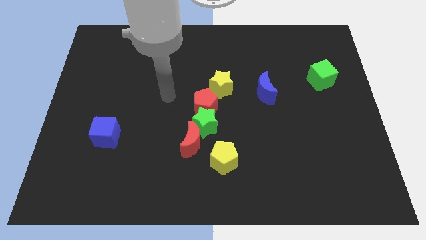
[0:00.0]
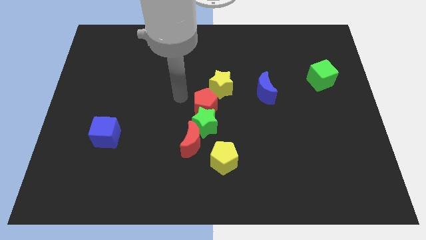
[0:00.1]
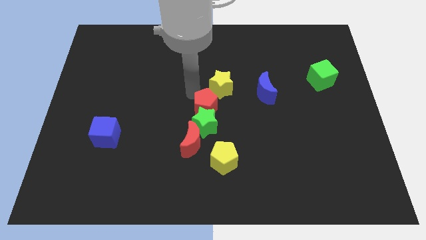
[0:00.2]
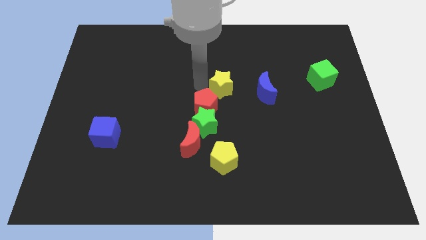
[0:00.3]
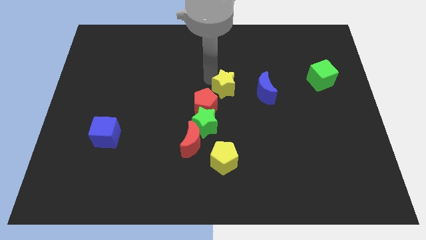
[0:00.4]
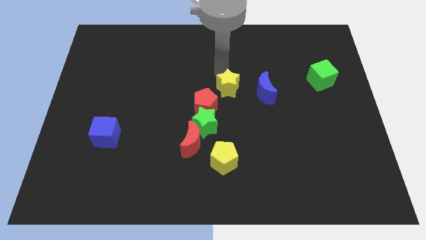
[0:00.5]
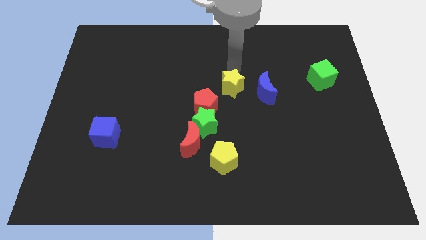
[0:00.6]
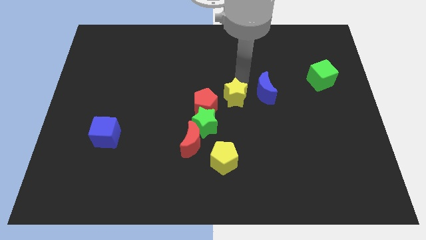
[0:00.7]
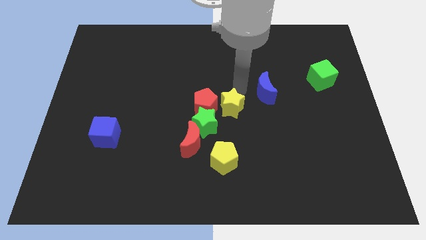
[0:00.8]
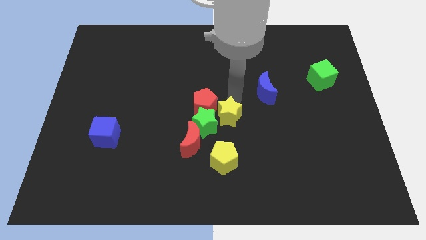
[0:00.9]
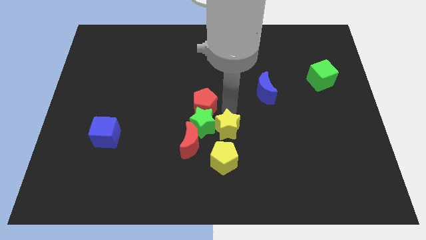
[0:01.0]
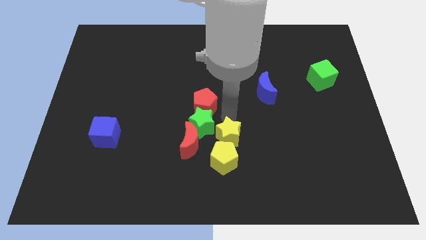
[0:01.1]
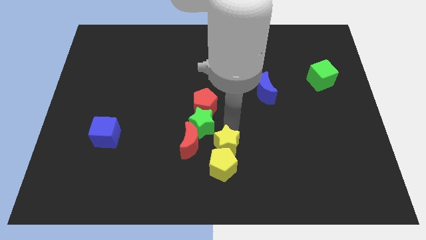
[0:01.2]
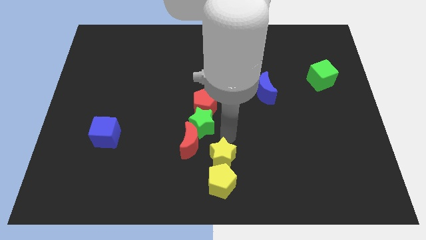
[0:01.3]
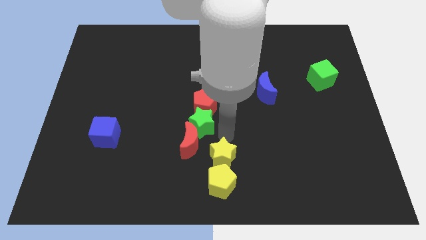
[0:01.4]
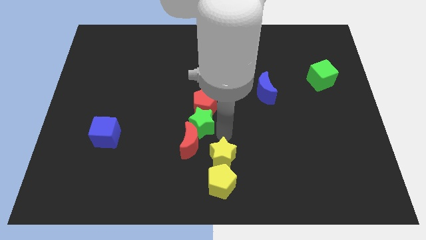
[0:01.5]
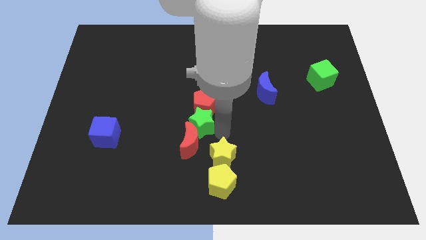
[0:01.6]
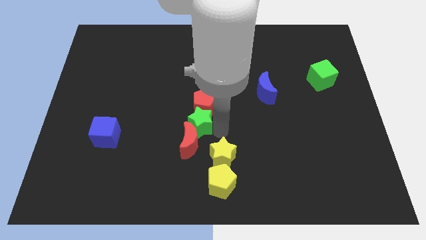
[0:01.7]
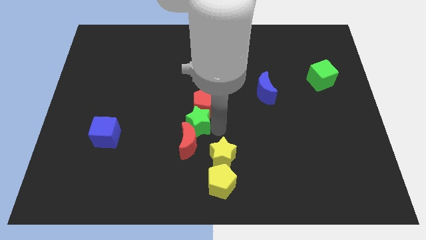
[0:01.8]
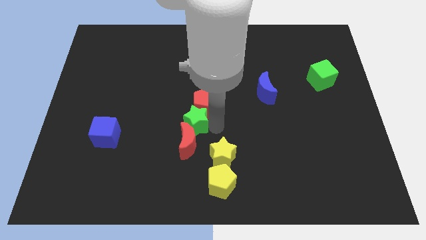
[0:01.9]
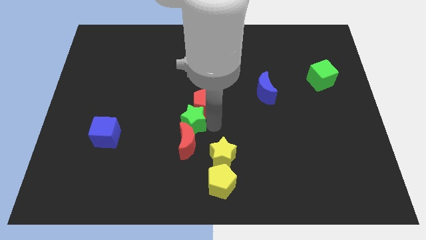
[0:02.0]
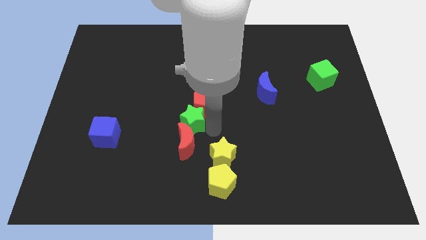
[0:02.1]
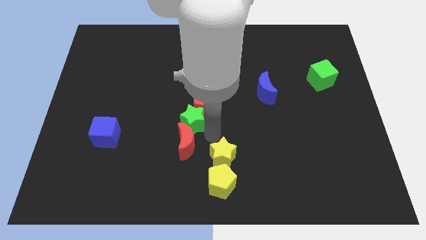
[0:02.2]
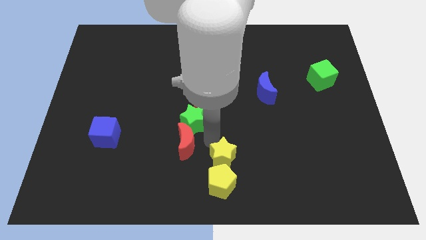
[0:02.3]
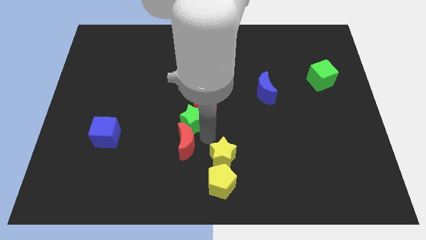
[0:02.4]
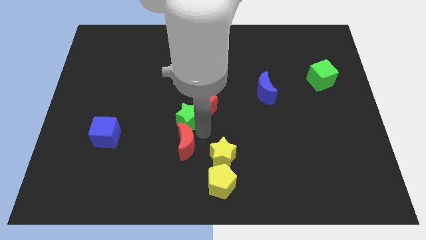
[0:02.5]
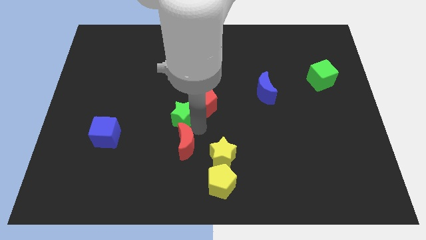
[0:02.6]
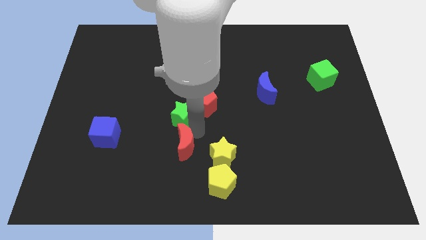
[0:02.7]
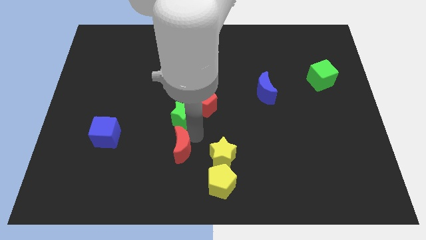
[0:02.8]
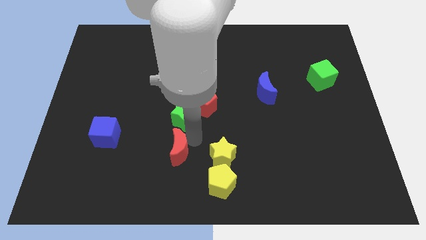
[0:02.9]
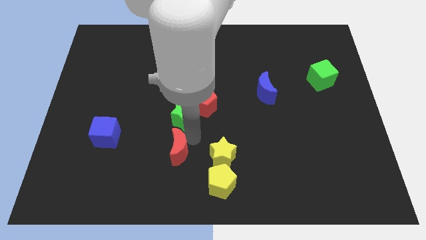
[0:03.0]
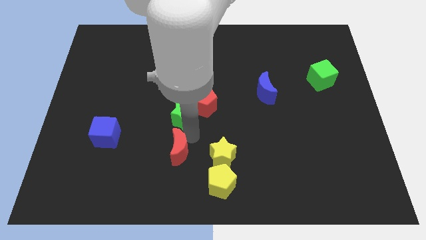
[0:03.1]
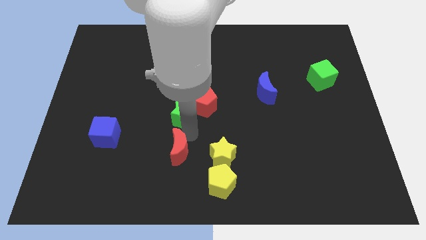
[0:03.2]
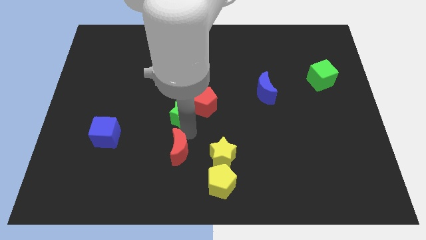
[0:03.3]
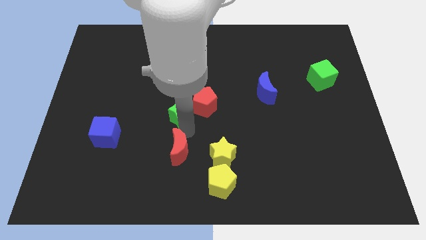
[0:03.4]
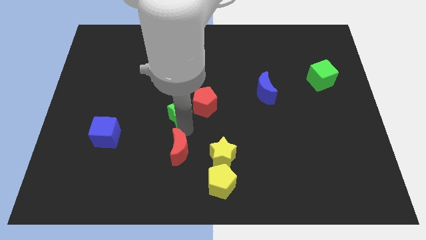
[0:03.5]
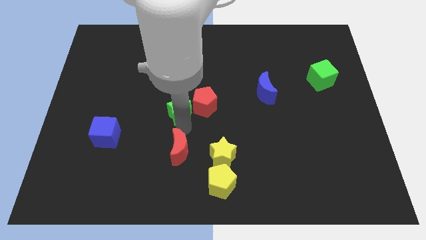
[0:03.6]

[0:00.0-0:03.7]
pull the green star apart from the group

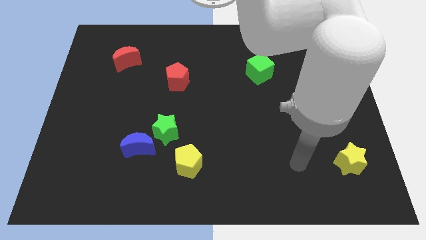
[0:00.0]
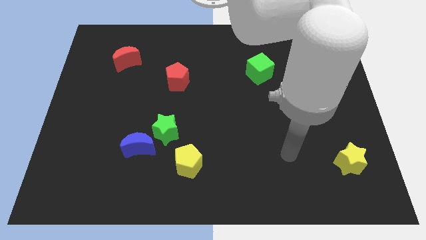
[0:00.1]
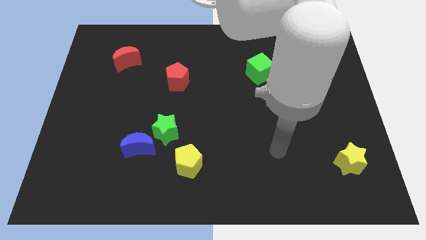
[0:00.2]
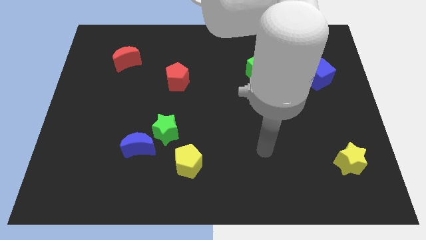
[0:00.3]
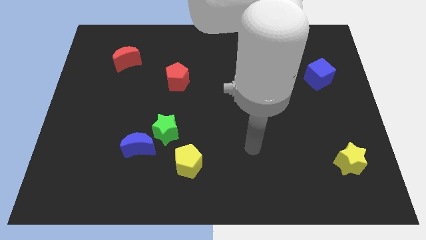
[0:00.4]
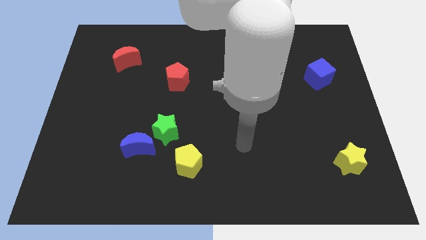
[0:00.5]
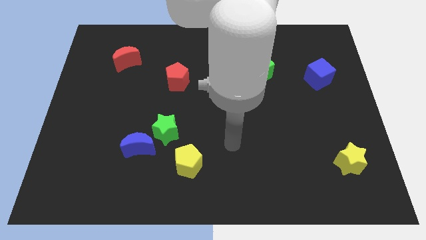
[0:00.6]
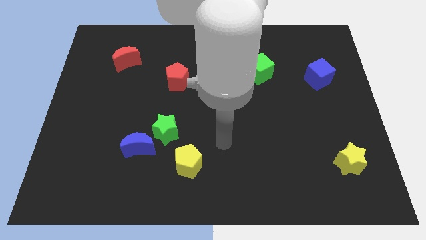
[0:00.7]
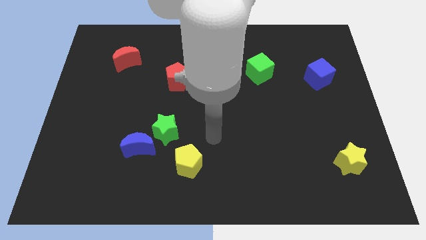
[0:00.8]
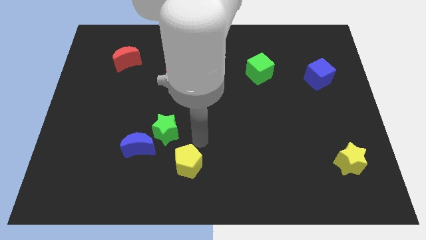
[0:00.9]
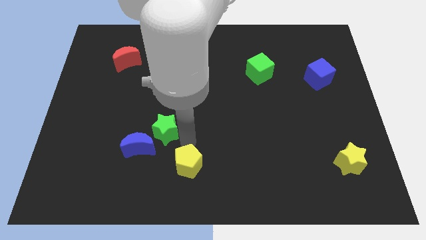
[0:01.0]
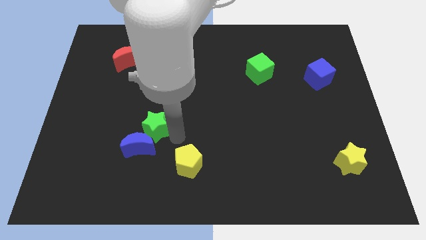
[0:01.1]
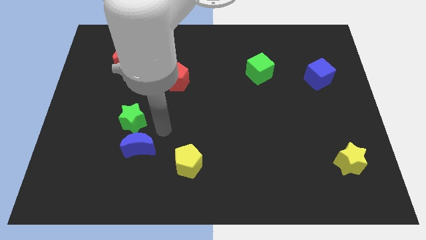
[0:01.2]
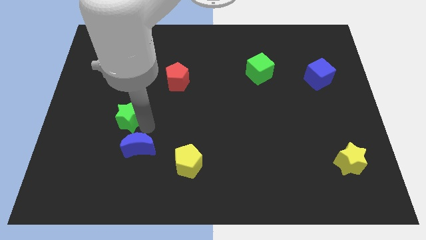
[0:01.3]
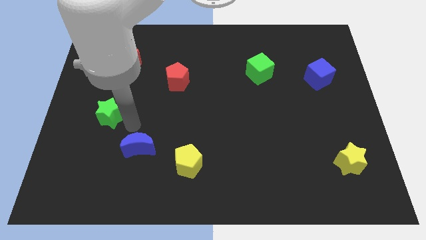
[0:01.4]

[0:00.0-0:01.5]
pull the blue moon apart from the green star

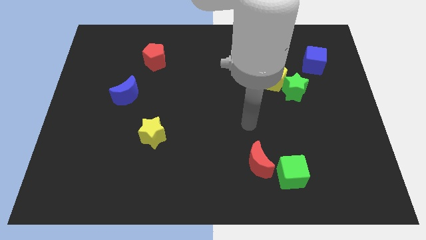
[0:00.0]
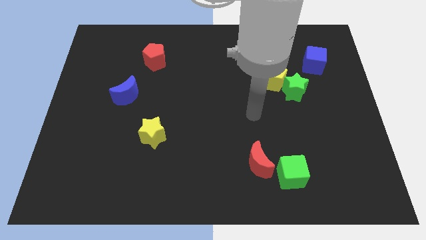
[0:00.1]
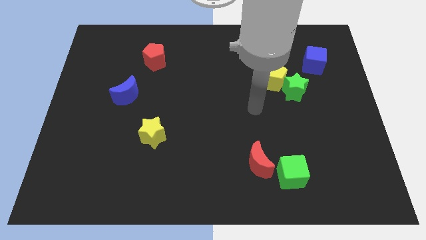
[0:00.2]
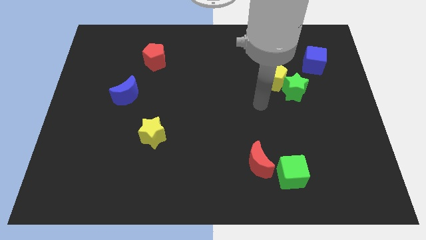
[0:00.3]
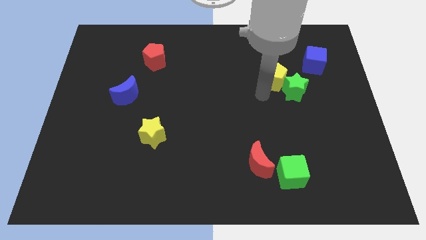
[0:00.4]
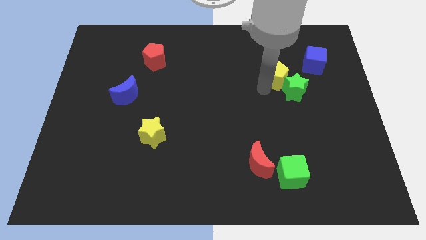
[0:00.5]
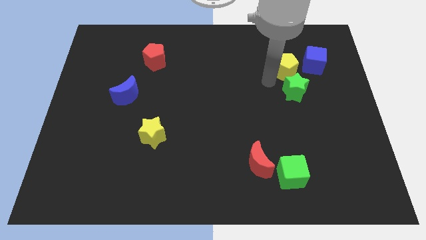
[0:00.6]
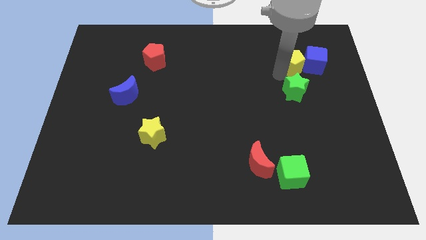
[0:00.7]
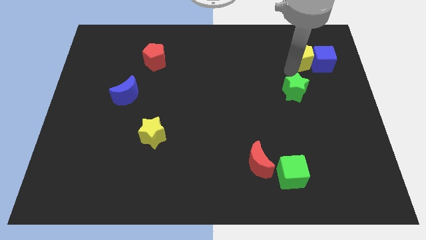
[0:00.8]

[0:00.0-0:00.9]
separate the green star from the yellow pentagon

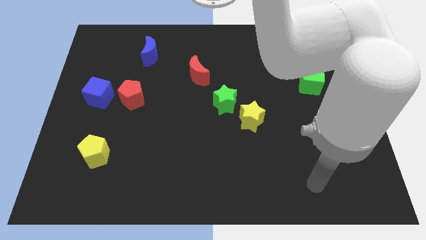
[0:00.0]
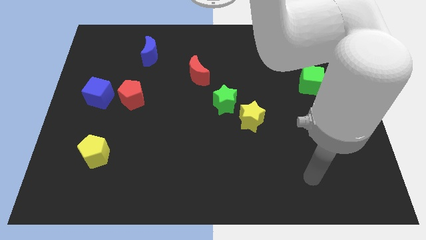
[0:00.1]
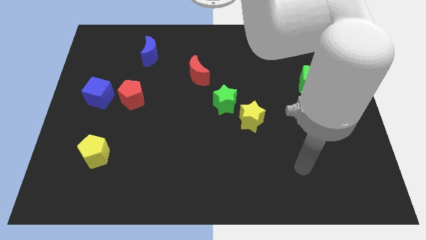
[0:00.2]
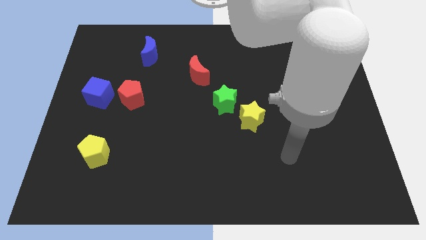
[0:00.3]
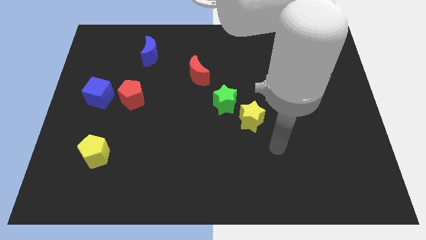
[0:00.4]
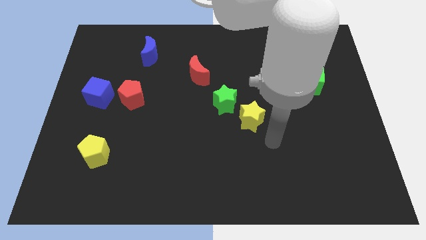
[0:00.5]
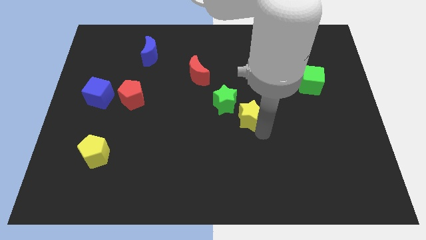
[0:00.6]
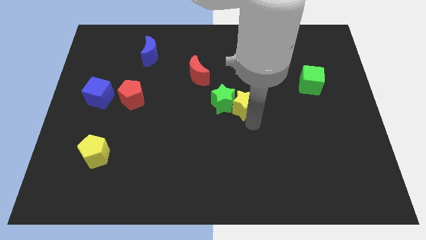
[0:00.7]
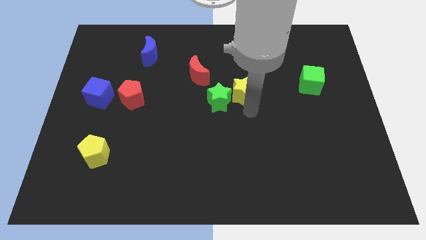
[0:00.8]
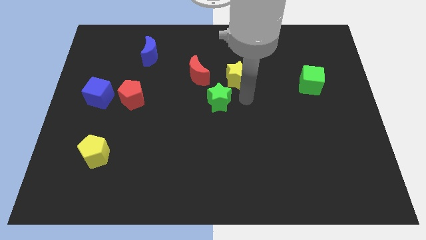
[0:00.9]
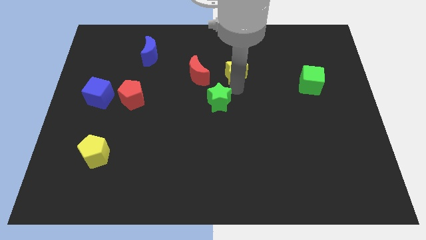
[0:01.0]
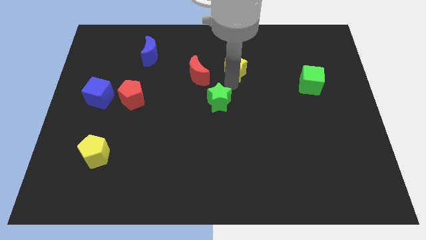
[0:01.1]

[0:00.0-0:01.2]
pull the green star apart from the yellow star

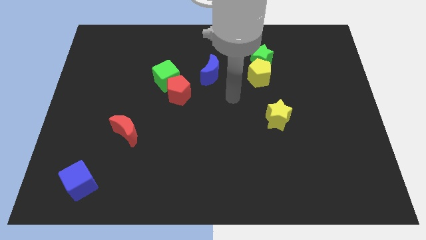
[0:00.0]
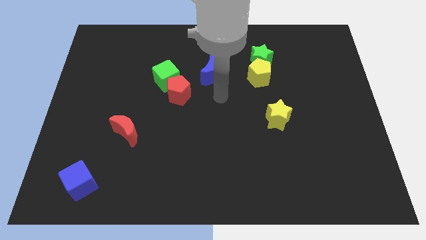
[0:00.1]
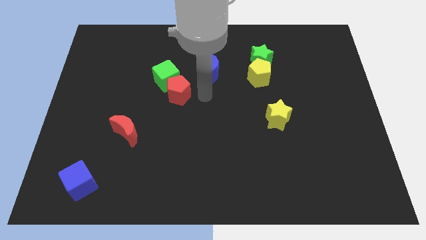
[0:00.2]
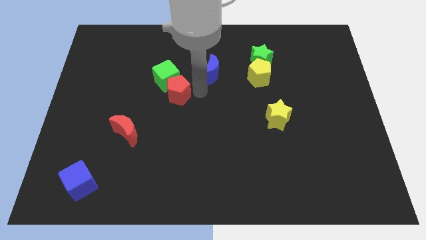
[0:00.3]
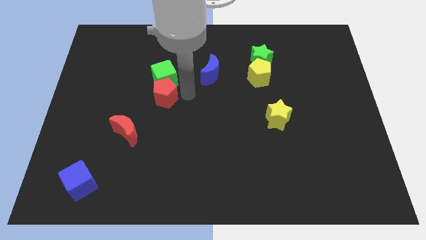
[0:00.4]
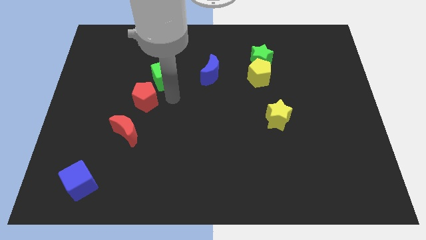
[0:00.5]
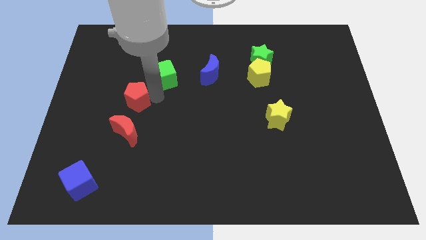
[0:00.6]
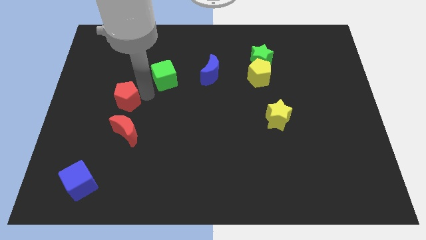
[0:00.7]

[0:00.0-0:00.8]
separate the green cube from the red pentagon

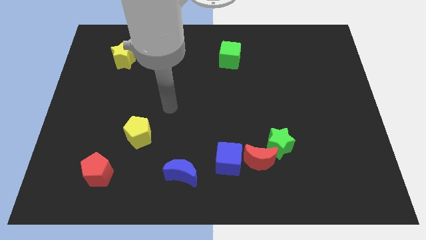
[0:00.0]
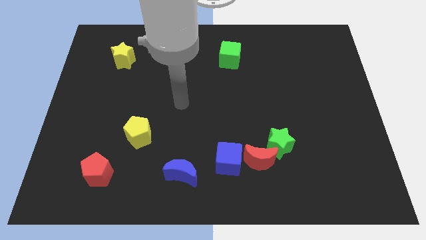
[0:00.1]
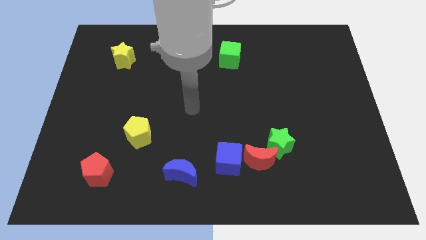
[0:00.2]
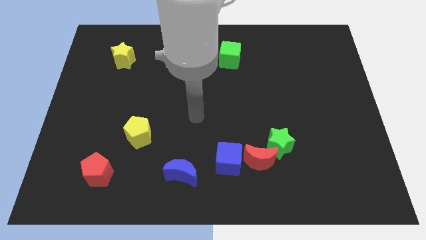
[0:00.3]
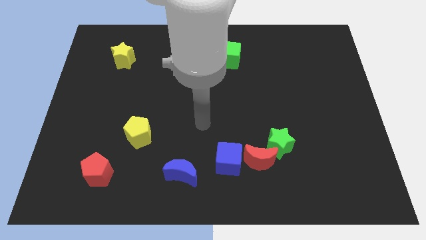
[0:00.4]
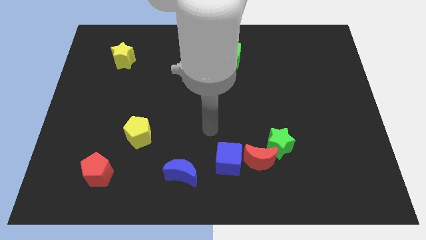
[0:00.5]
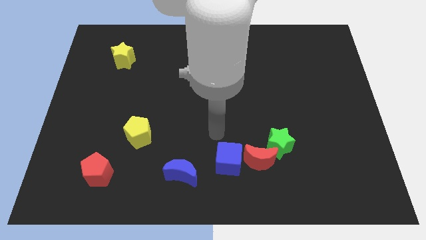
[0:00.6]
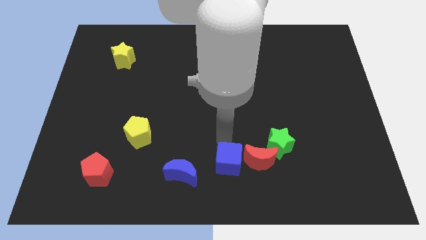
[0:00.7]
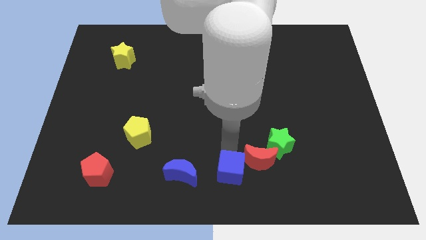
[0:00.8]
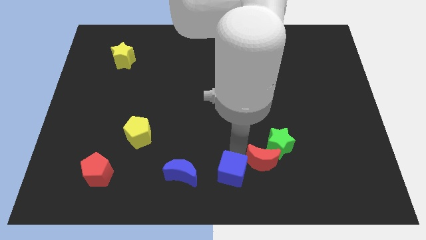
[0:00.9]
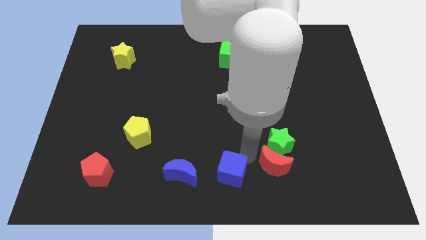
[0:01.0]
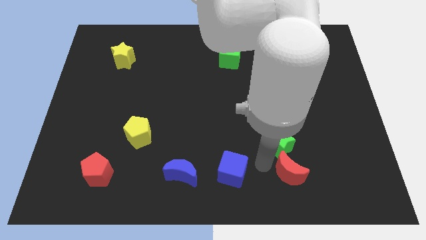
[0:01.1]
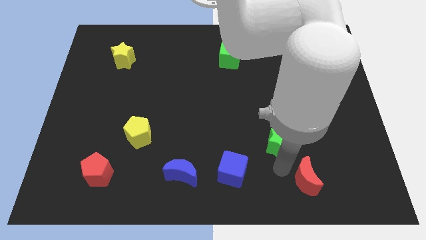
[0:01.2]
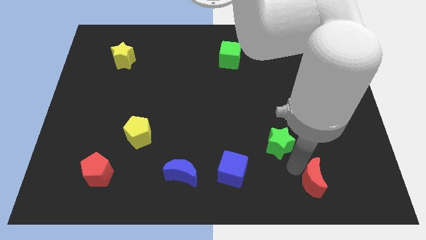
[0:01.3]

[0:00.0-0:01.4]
separate the green star from the red moon
